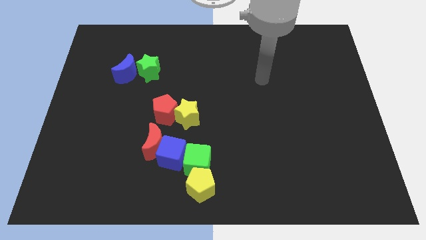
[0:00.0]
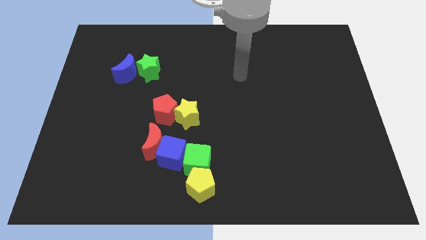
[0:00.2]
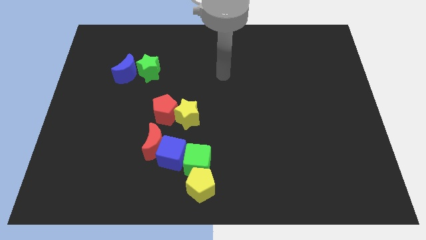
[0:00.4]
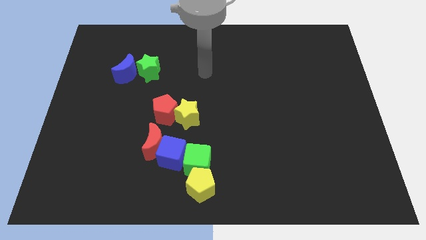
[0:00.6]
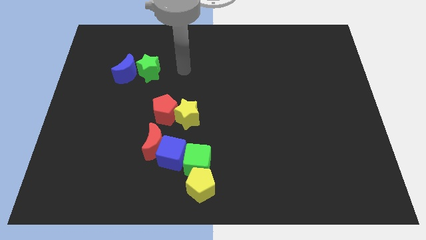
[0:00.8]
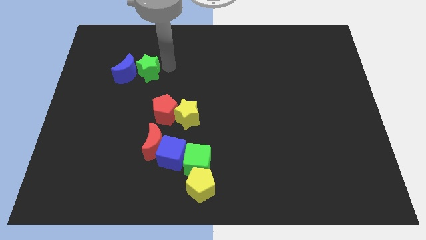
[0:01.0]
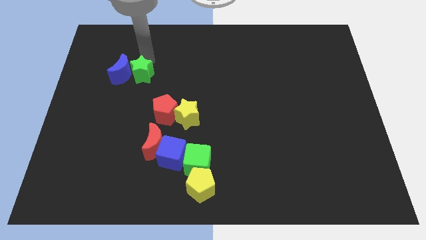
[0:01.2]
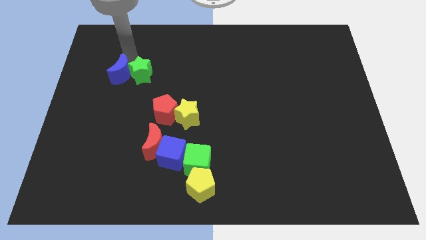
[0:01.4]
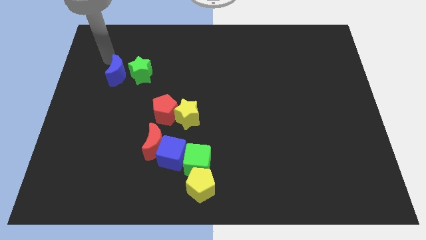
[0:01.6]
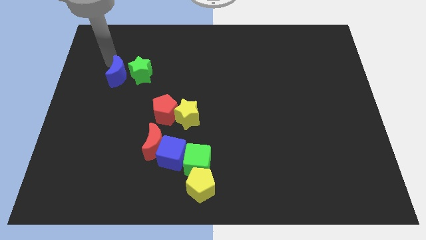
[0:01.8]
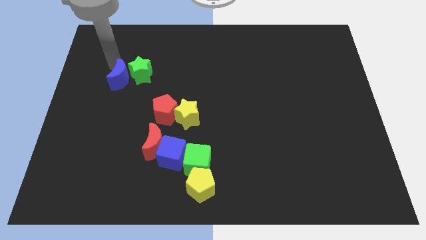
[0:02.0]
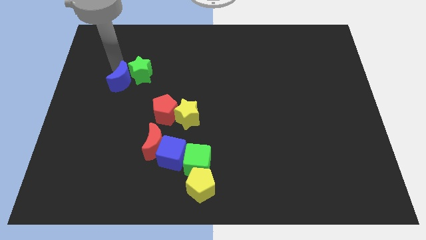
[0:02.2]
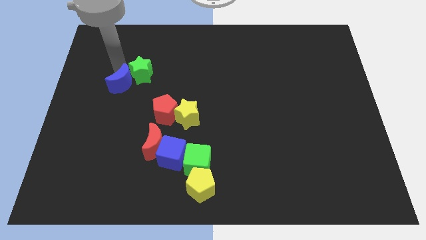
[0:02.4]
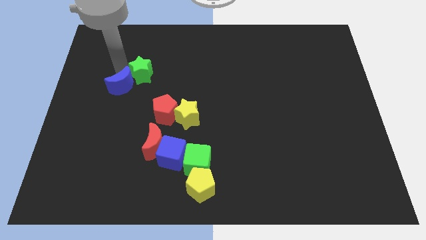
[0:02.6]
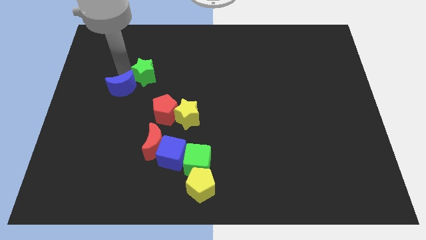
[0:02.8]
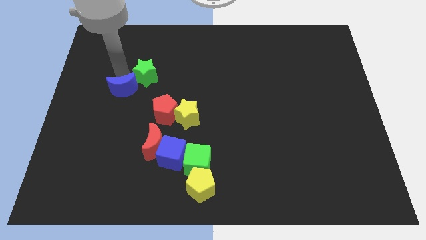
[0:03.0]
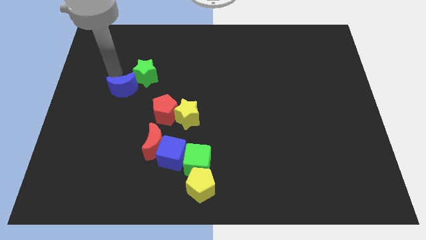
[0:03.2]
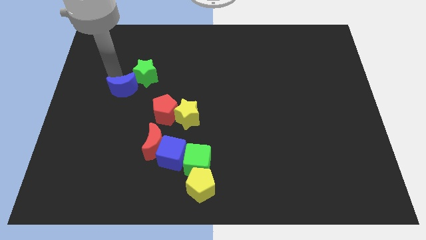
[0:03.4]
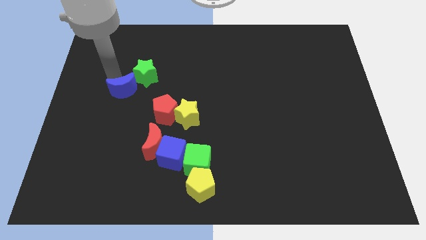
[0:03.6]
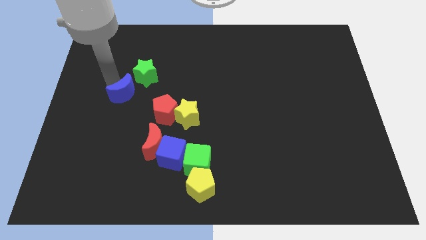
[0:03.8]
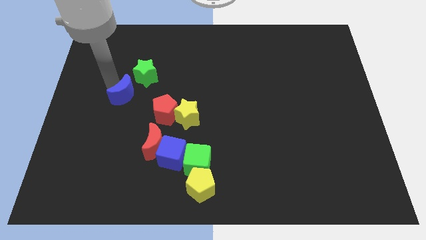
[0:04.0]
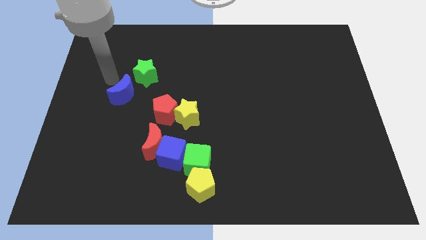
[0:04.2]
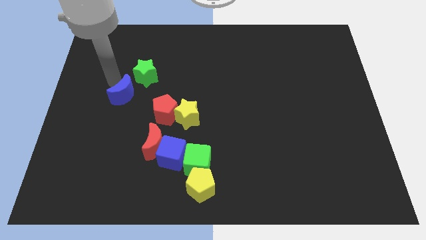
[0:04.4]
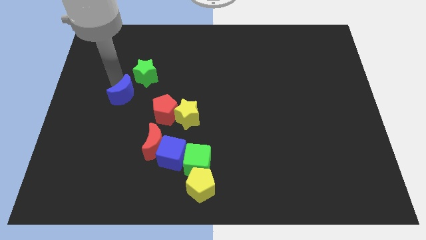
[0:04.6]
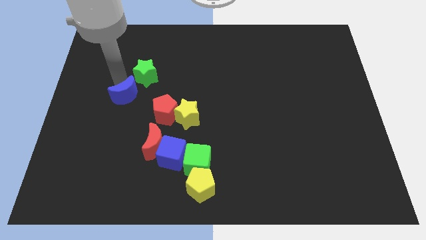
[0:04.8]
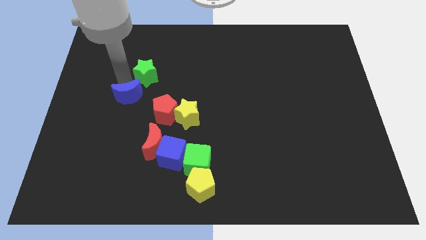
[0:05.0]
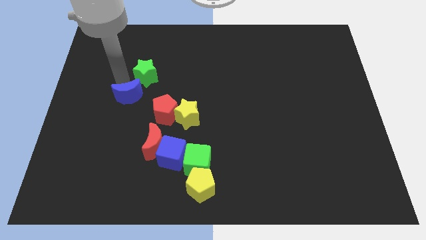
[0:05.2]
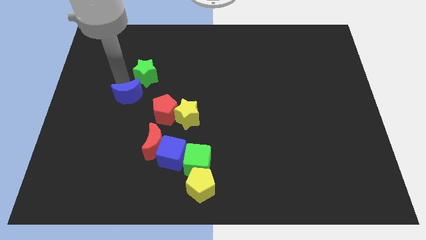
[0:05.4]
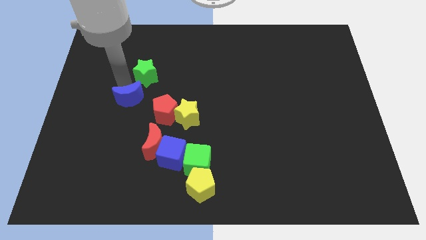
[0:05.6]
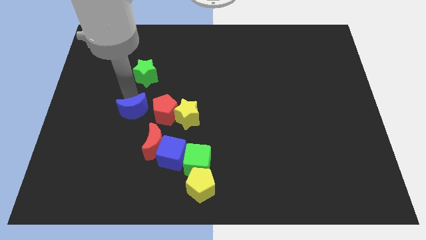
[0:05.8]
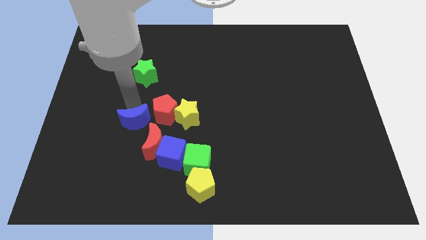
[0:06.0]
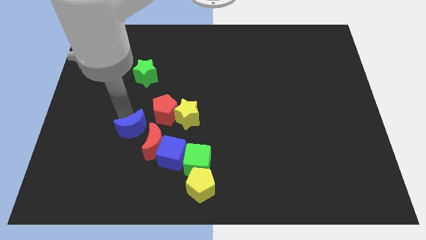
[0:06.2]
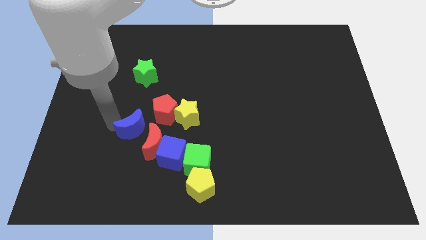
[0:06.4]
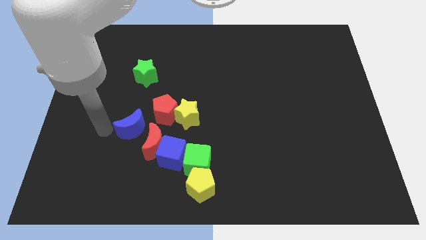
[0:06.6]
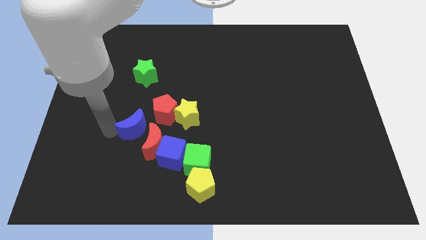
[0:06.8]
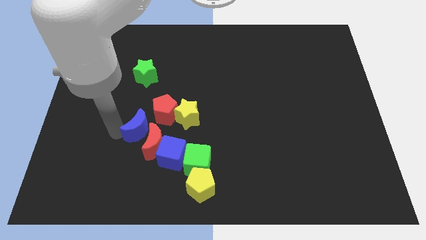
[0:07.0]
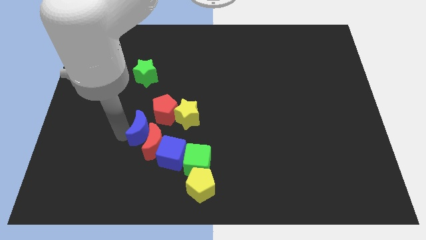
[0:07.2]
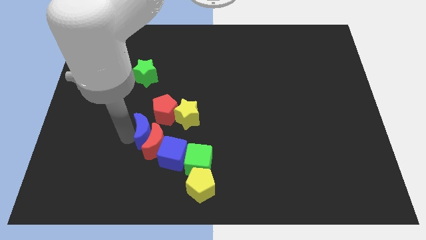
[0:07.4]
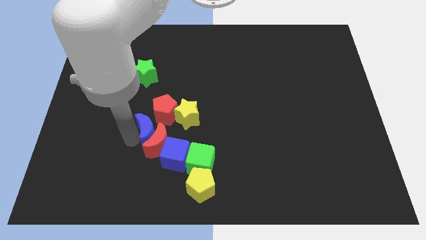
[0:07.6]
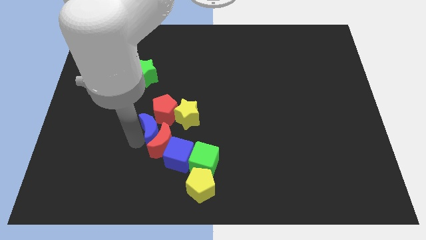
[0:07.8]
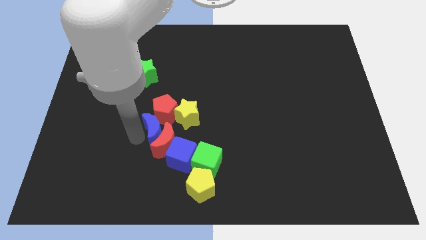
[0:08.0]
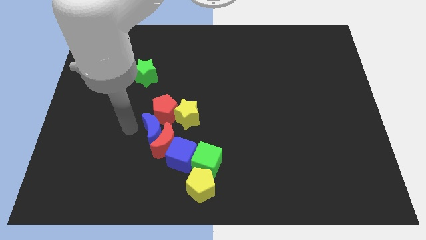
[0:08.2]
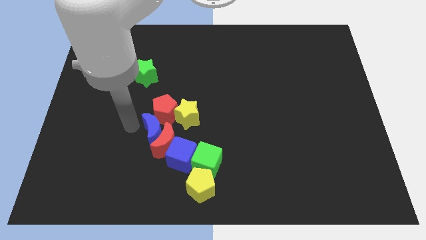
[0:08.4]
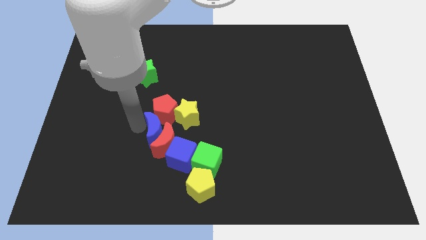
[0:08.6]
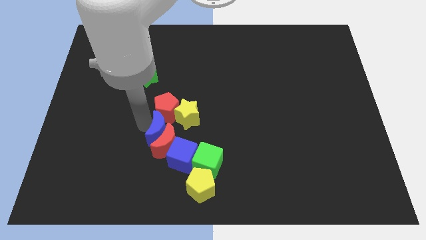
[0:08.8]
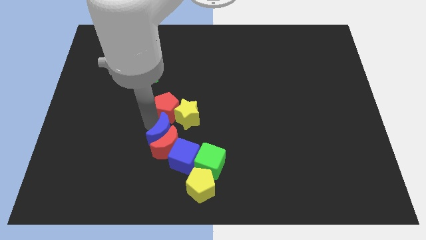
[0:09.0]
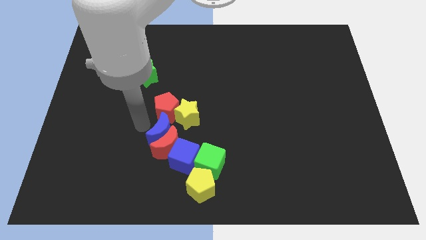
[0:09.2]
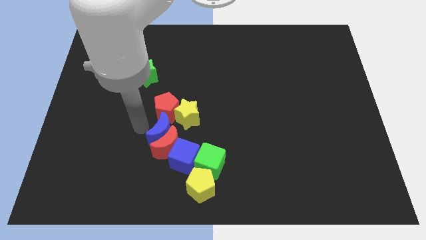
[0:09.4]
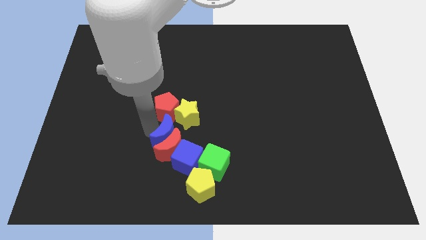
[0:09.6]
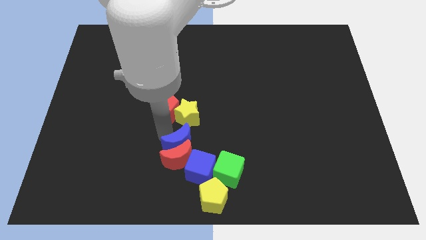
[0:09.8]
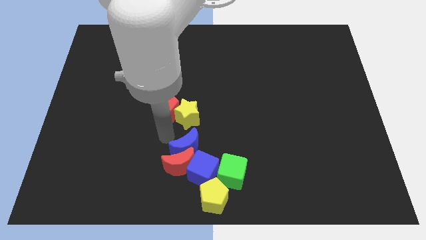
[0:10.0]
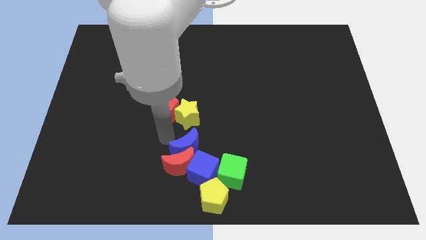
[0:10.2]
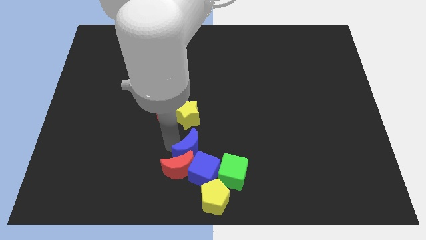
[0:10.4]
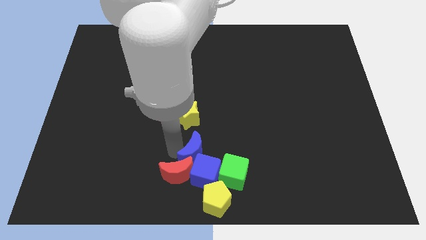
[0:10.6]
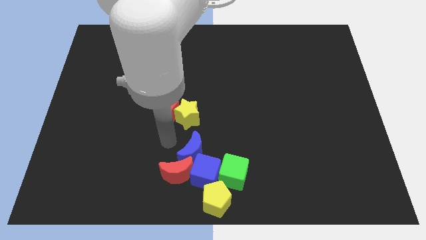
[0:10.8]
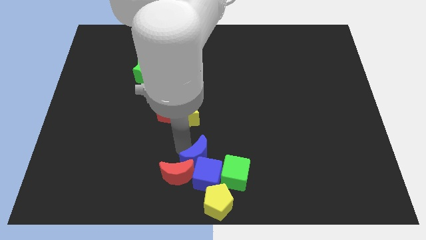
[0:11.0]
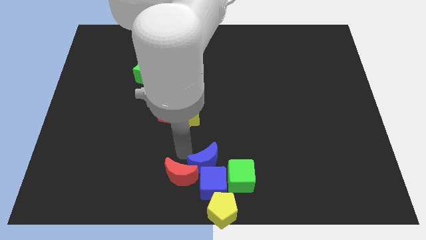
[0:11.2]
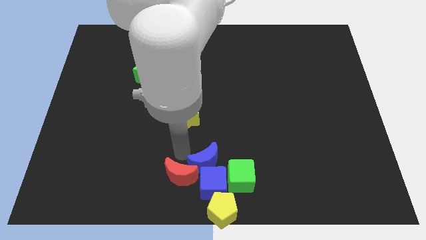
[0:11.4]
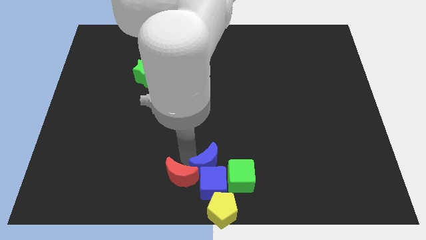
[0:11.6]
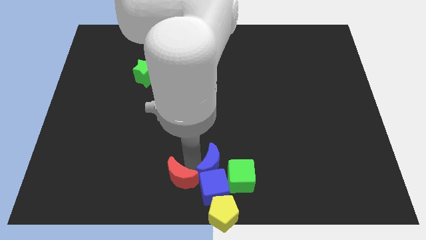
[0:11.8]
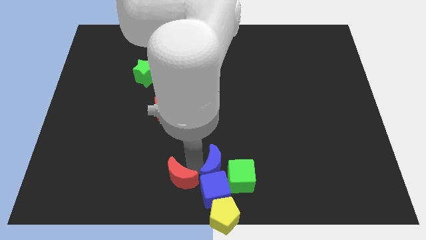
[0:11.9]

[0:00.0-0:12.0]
move the blue moon close to the green cube

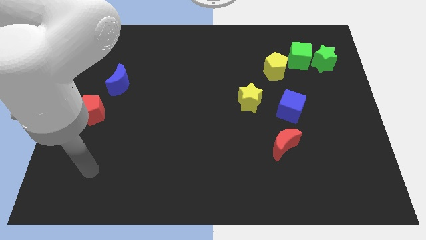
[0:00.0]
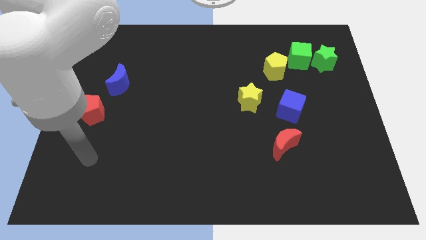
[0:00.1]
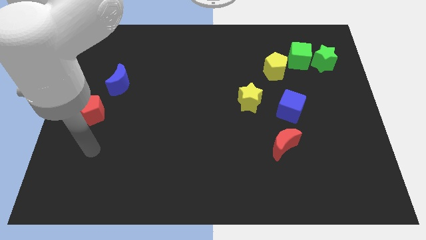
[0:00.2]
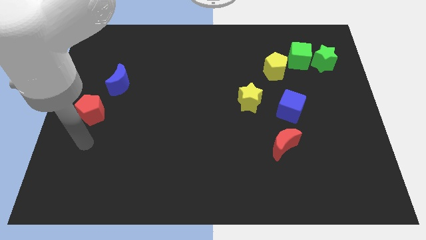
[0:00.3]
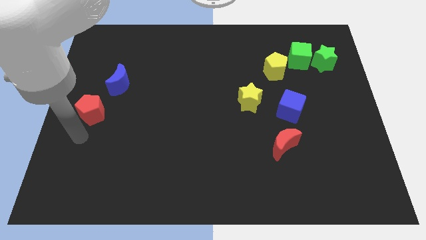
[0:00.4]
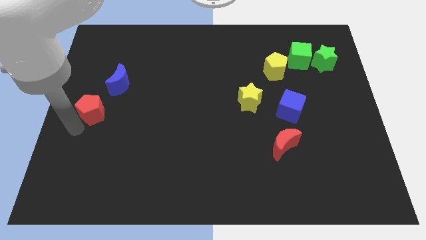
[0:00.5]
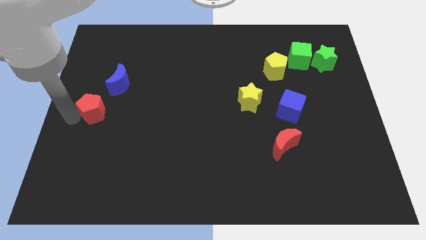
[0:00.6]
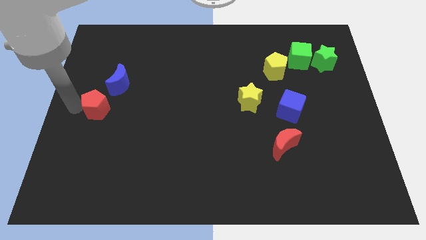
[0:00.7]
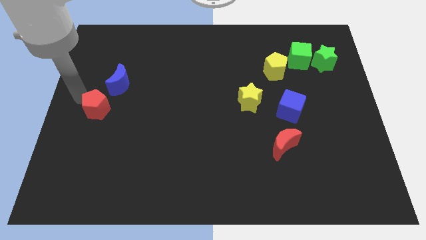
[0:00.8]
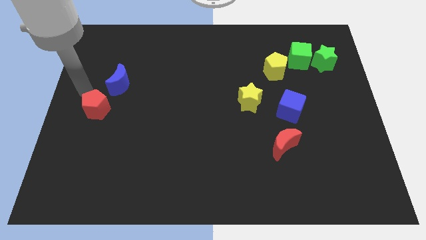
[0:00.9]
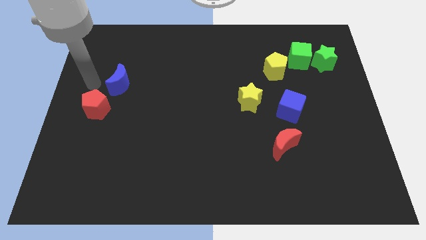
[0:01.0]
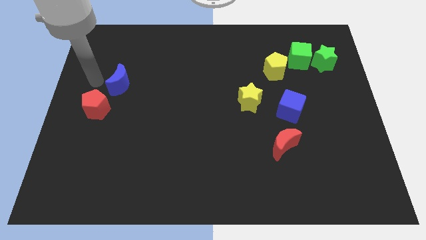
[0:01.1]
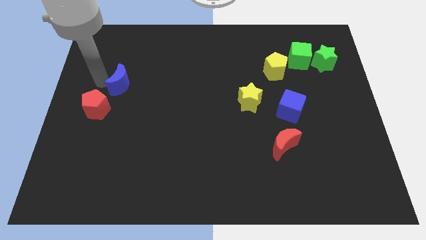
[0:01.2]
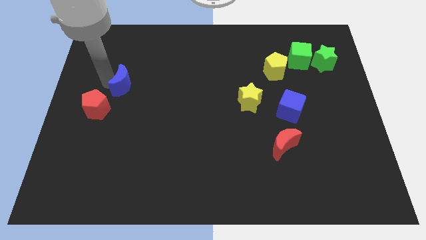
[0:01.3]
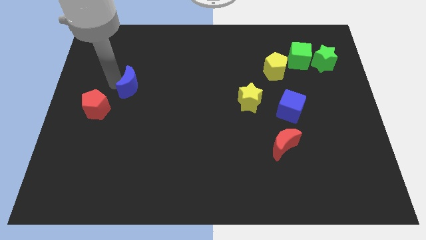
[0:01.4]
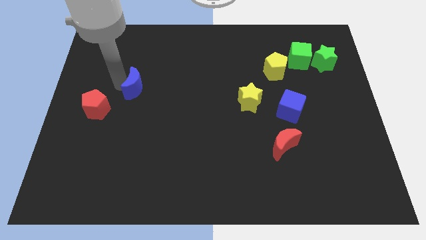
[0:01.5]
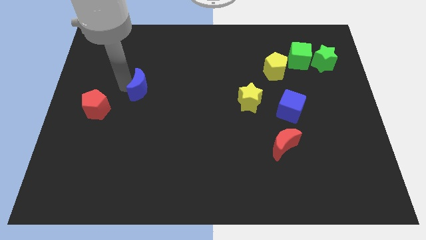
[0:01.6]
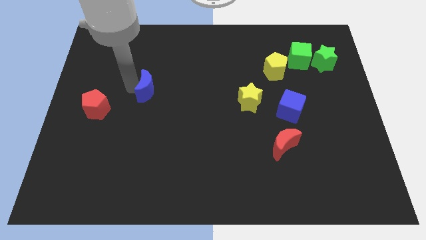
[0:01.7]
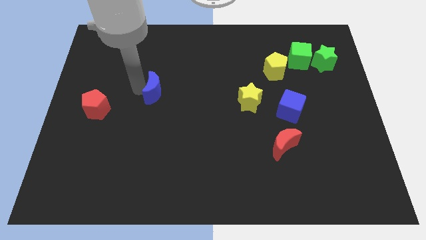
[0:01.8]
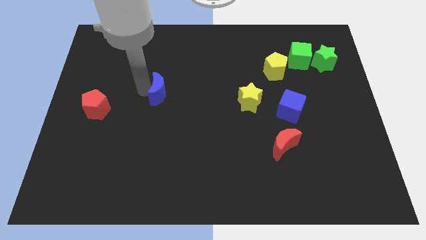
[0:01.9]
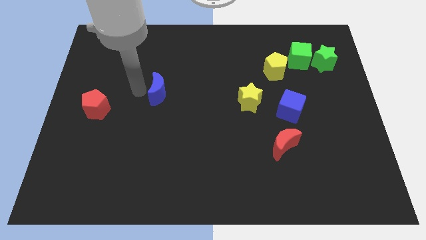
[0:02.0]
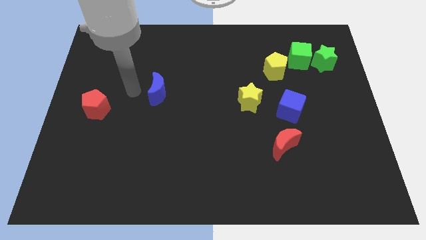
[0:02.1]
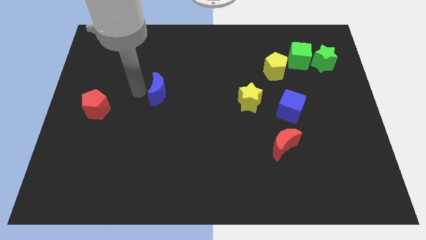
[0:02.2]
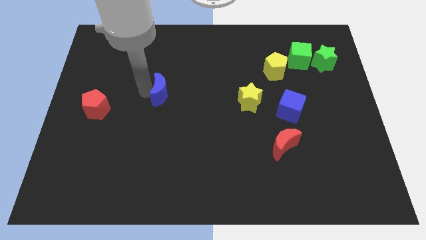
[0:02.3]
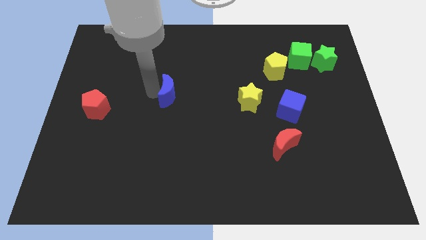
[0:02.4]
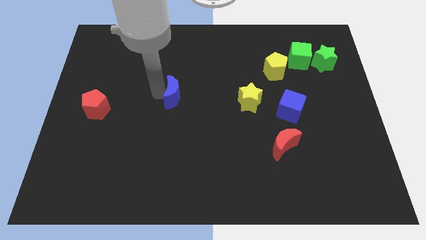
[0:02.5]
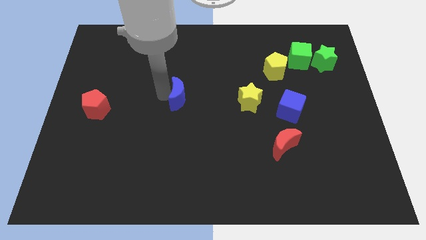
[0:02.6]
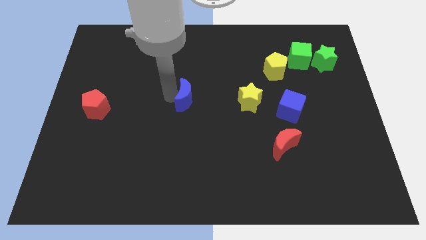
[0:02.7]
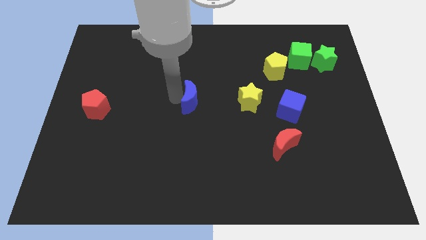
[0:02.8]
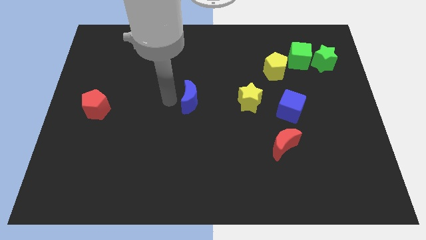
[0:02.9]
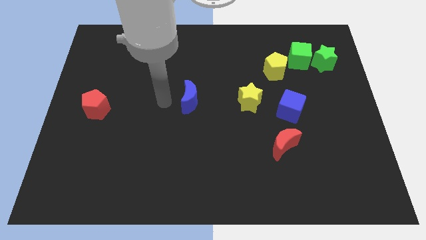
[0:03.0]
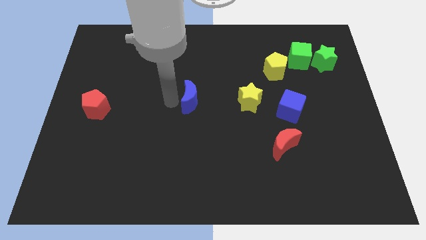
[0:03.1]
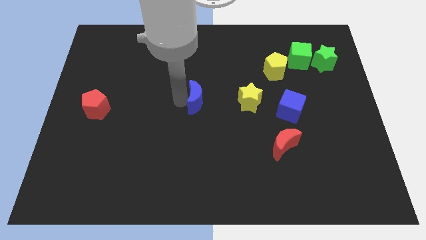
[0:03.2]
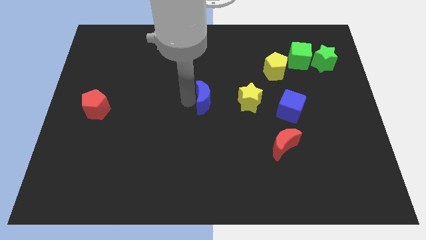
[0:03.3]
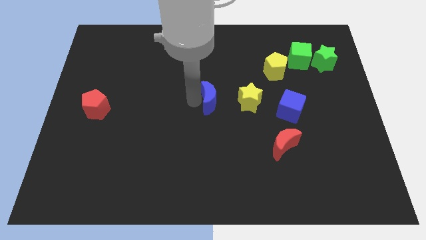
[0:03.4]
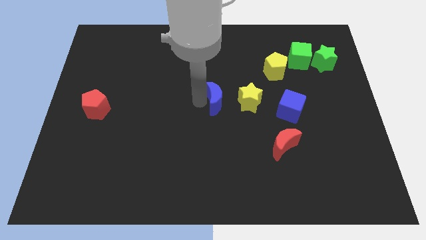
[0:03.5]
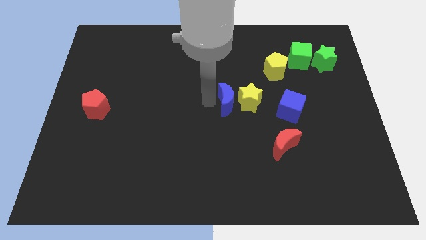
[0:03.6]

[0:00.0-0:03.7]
put the blue moon close to the yellow star
